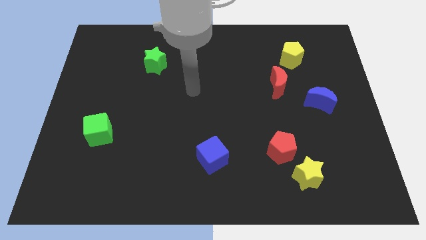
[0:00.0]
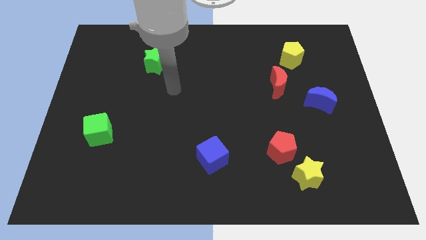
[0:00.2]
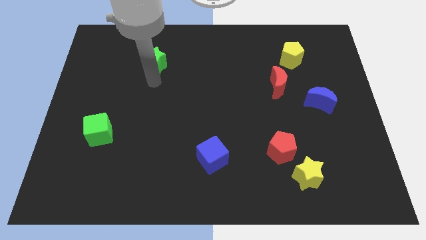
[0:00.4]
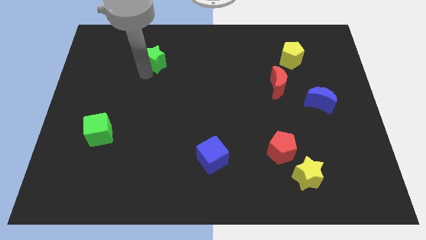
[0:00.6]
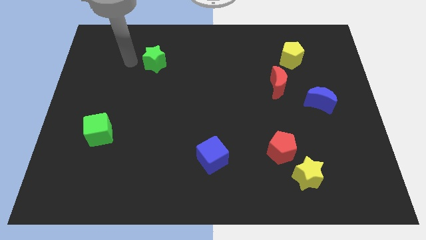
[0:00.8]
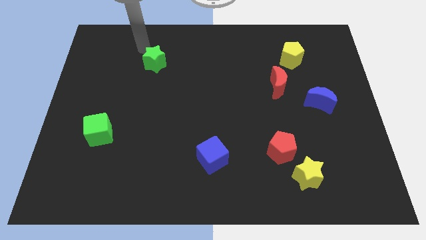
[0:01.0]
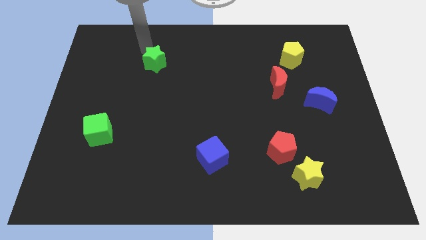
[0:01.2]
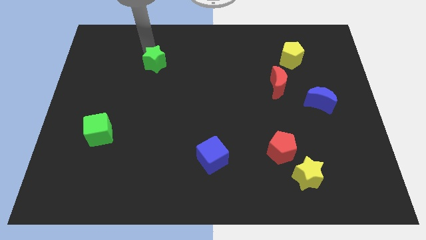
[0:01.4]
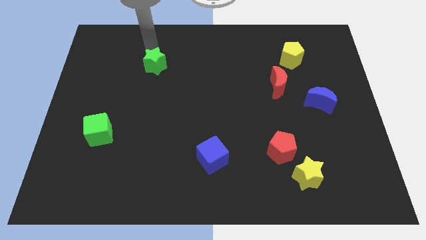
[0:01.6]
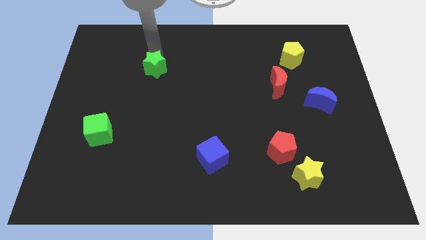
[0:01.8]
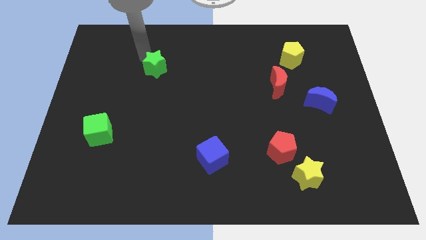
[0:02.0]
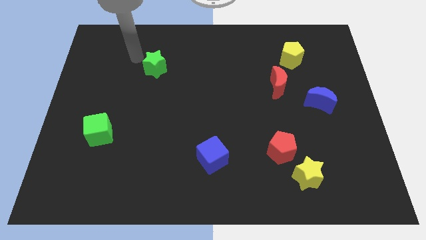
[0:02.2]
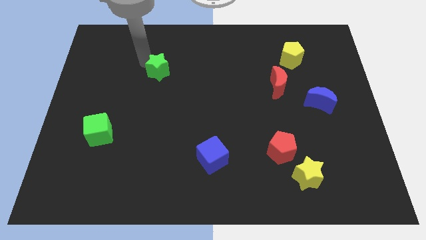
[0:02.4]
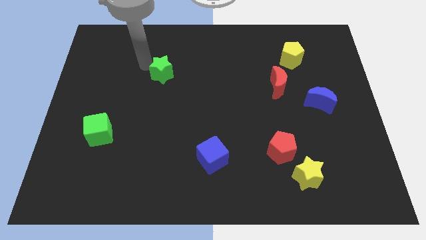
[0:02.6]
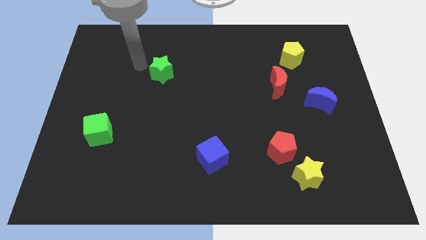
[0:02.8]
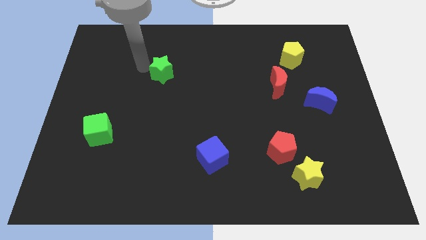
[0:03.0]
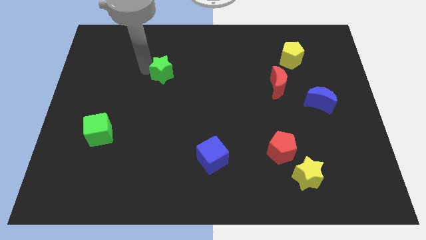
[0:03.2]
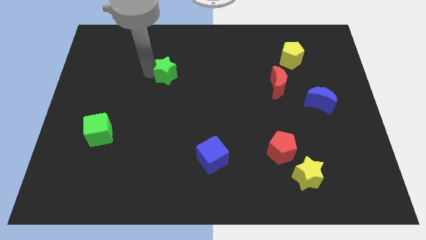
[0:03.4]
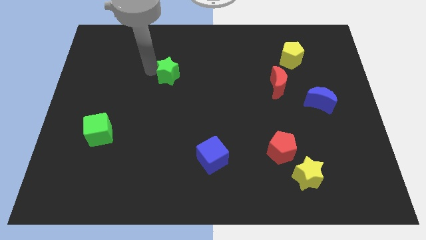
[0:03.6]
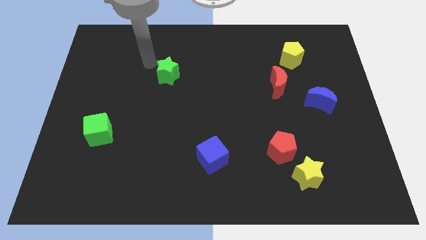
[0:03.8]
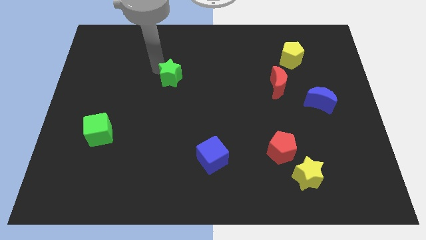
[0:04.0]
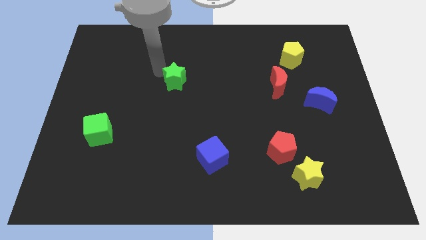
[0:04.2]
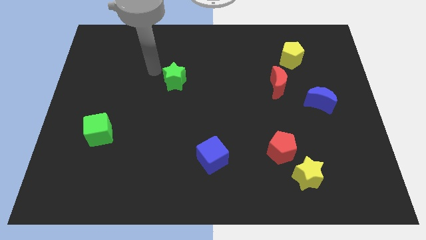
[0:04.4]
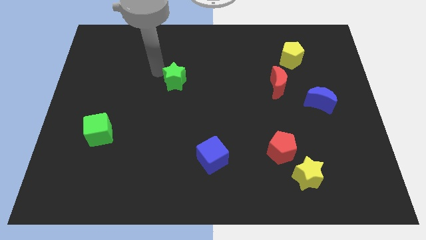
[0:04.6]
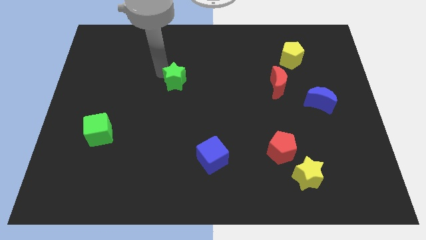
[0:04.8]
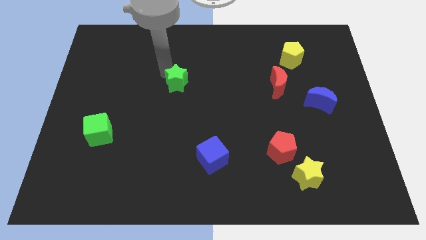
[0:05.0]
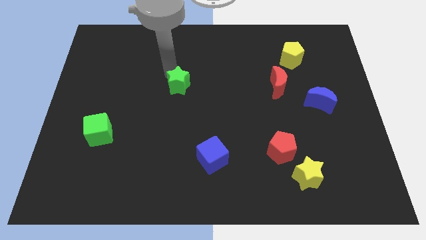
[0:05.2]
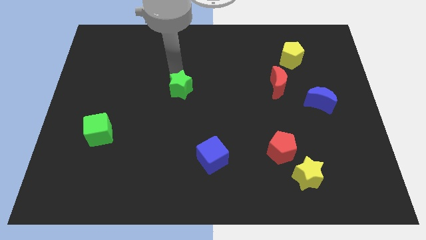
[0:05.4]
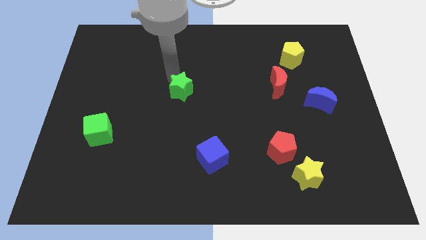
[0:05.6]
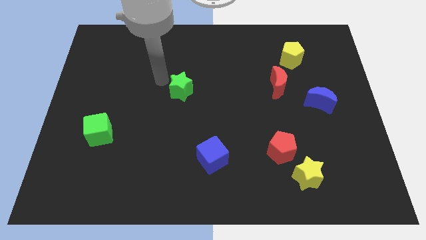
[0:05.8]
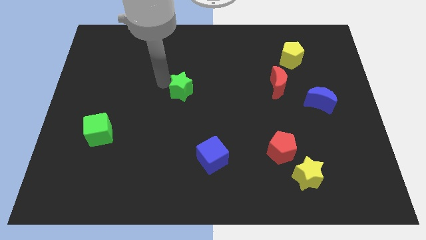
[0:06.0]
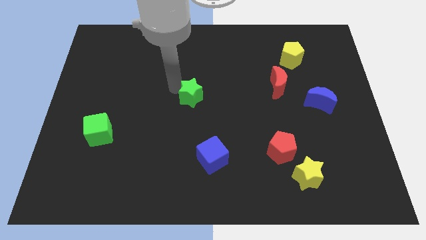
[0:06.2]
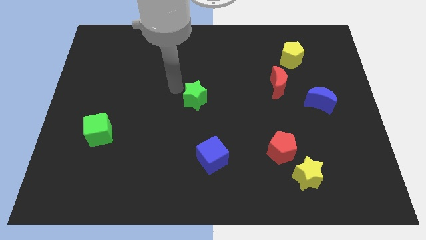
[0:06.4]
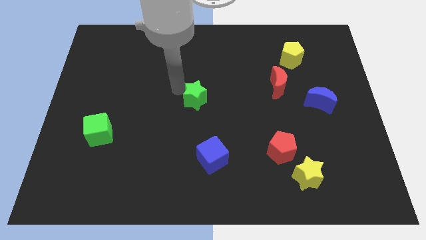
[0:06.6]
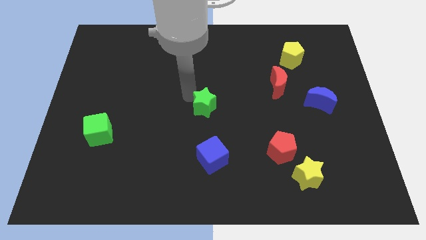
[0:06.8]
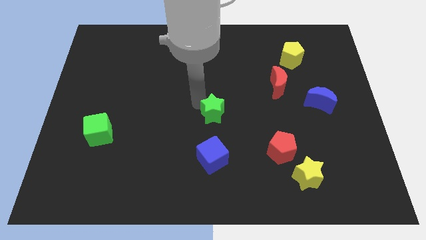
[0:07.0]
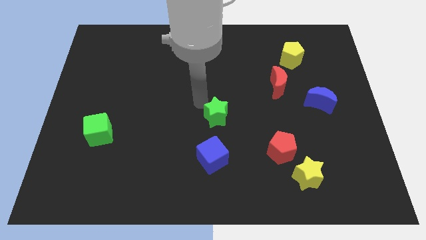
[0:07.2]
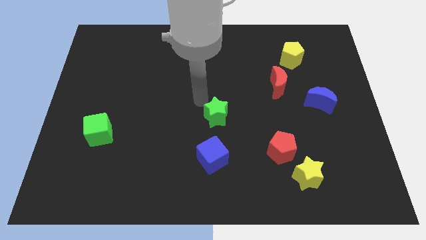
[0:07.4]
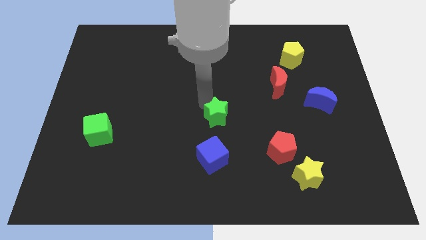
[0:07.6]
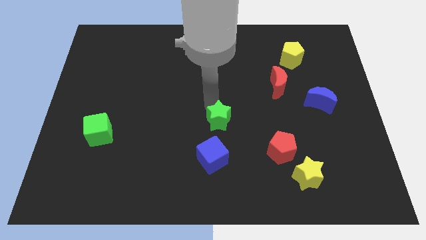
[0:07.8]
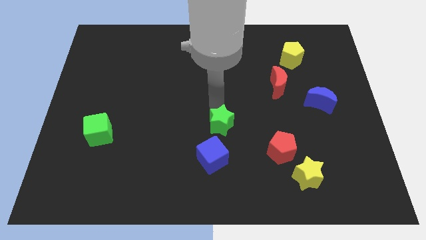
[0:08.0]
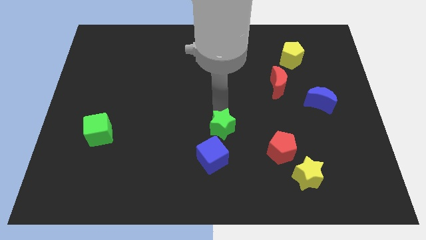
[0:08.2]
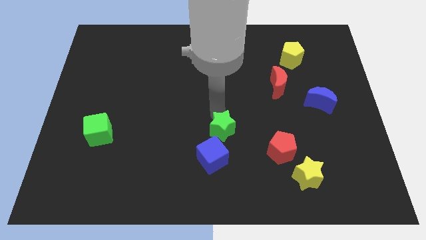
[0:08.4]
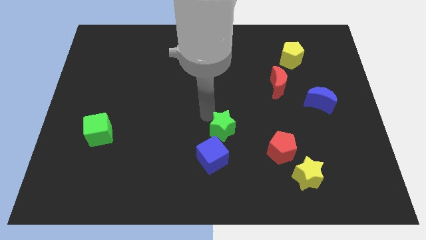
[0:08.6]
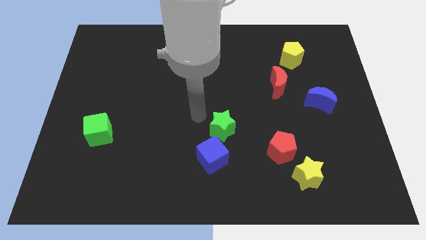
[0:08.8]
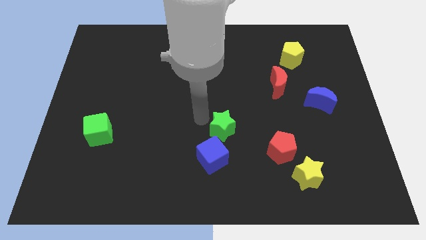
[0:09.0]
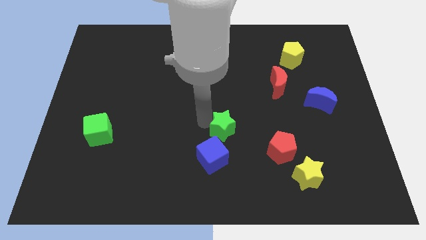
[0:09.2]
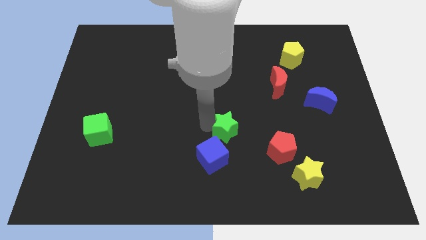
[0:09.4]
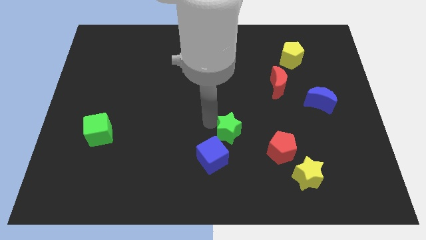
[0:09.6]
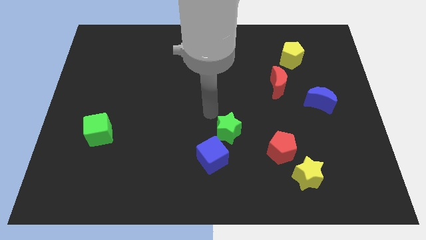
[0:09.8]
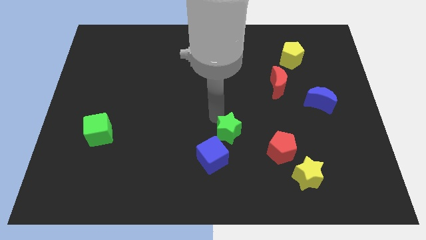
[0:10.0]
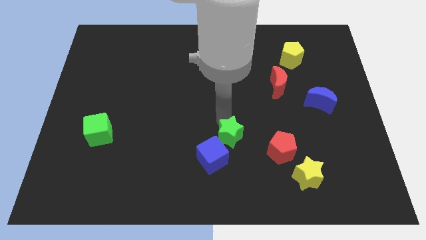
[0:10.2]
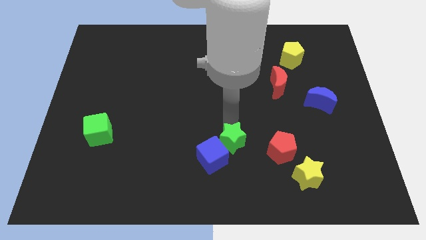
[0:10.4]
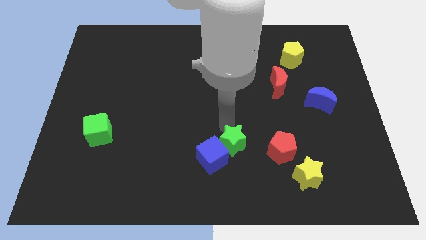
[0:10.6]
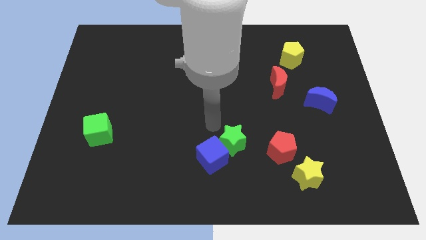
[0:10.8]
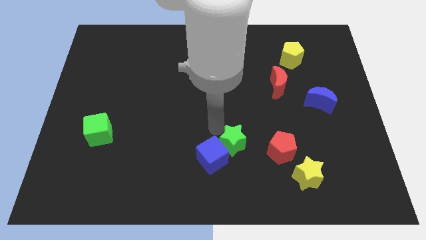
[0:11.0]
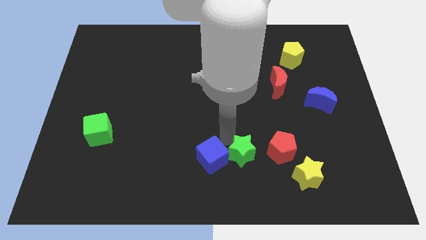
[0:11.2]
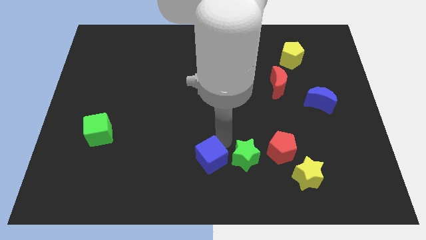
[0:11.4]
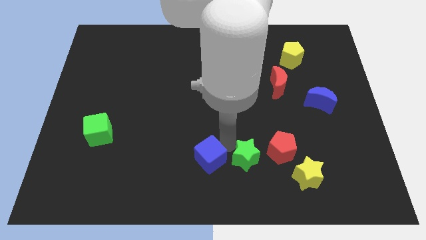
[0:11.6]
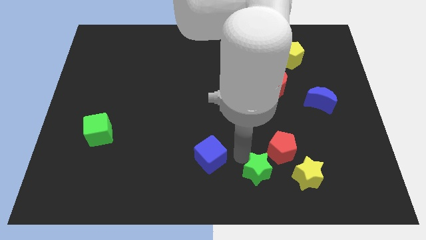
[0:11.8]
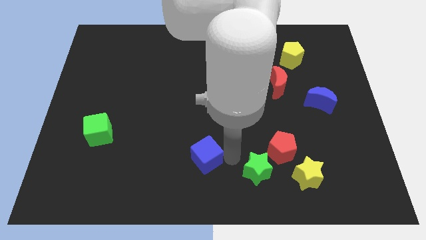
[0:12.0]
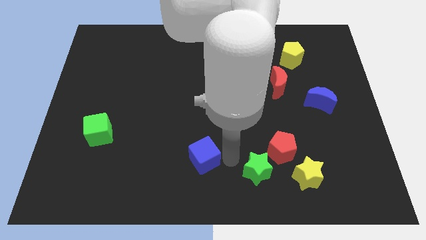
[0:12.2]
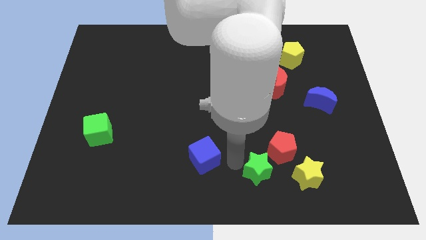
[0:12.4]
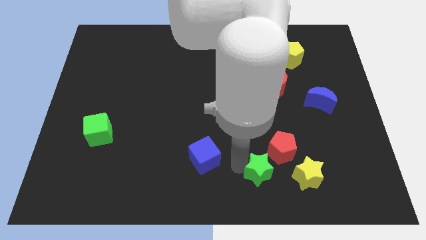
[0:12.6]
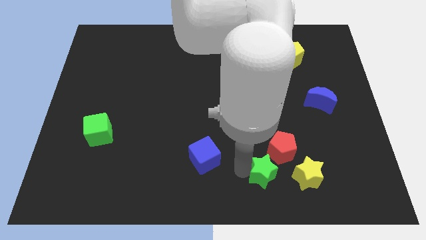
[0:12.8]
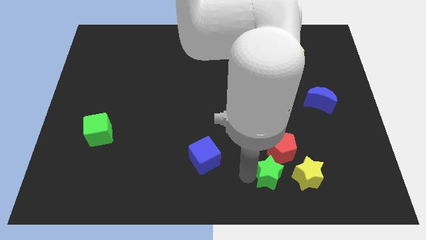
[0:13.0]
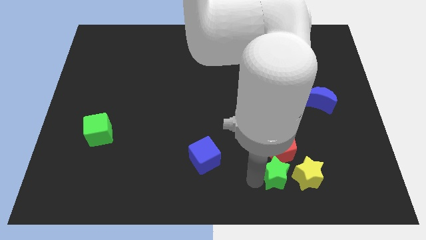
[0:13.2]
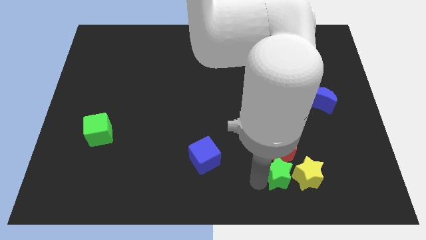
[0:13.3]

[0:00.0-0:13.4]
move the green star close to the yellow star

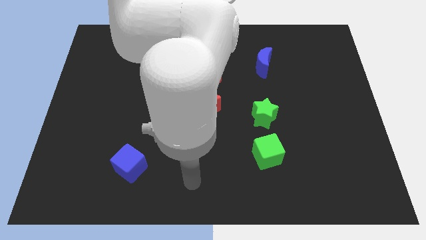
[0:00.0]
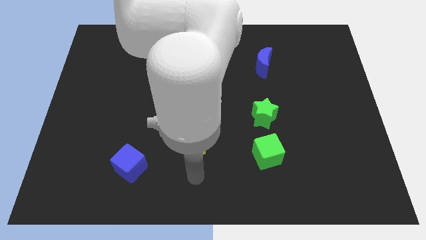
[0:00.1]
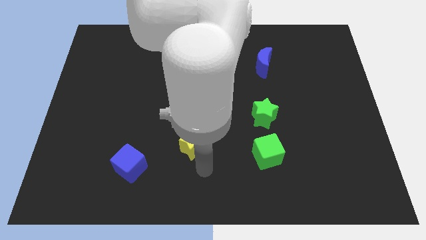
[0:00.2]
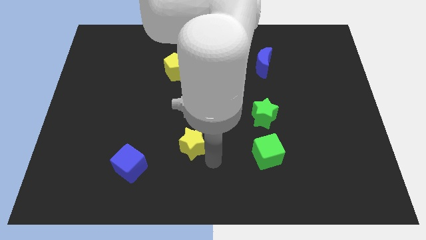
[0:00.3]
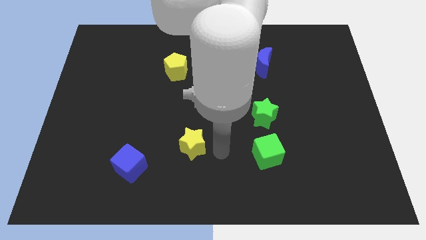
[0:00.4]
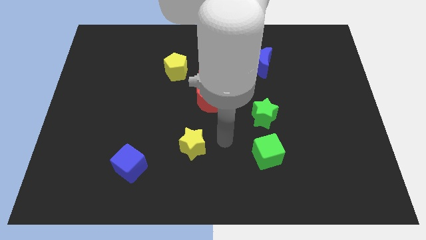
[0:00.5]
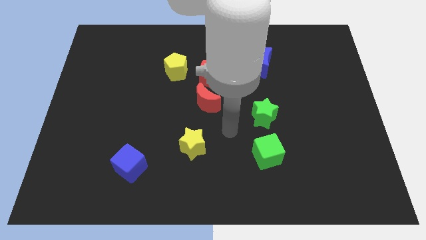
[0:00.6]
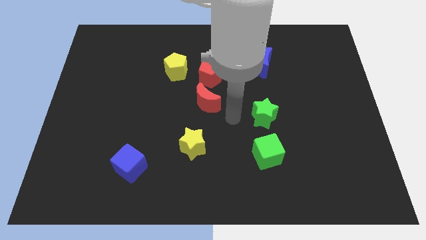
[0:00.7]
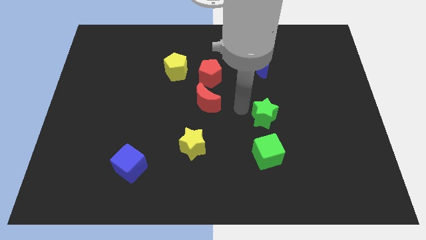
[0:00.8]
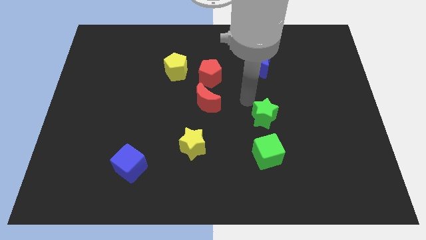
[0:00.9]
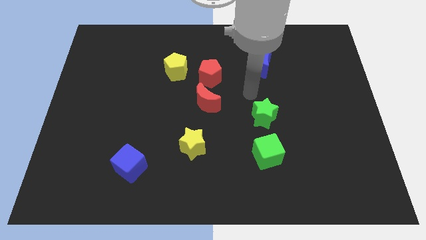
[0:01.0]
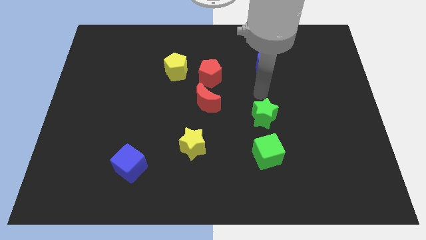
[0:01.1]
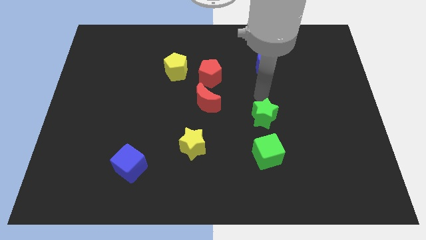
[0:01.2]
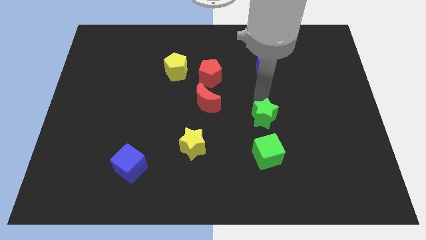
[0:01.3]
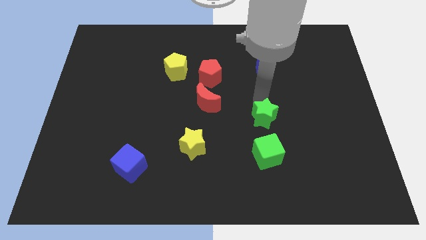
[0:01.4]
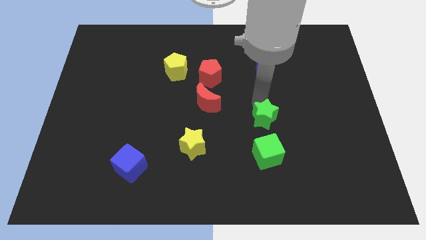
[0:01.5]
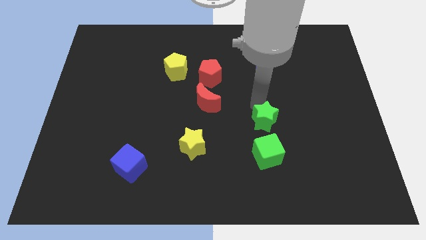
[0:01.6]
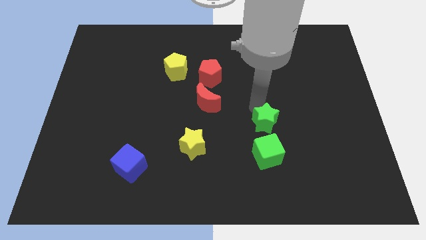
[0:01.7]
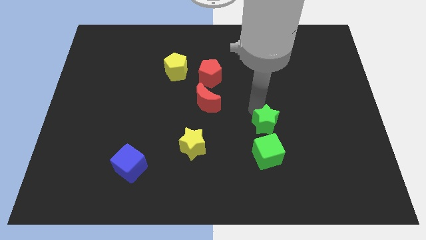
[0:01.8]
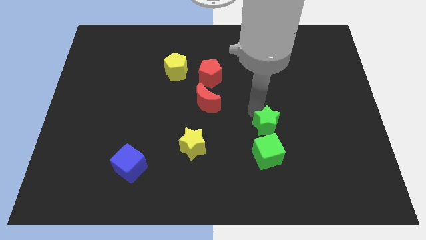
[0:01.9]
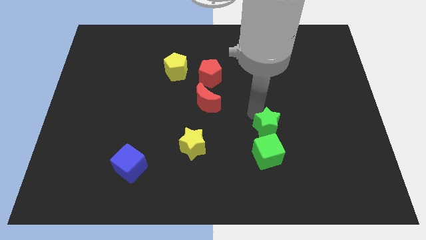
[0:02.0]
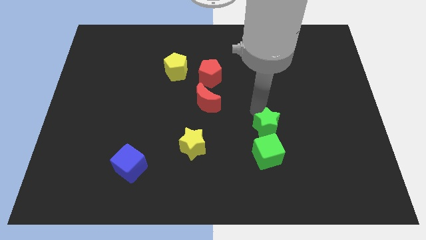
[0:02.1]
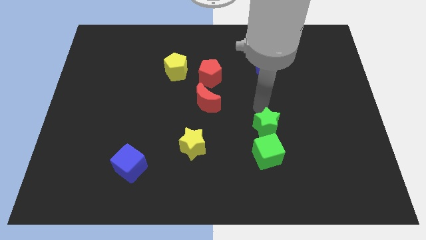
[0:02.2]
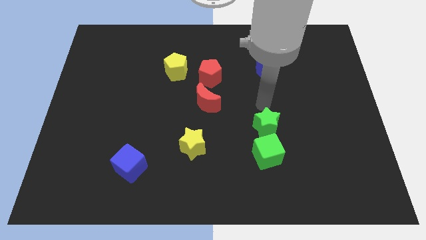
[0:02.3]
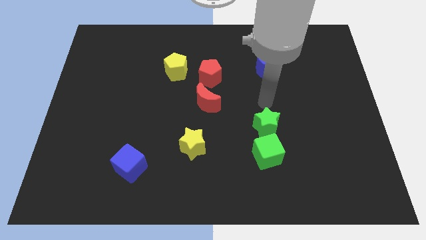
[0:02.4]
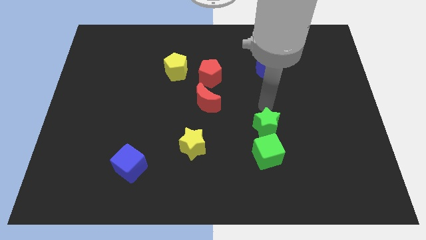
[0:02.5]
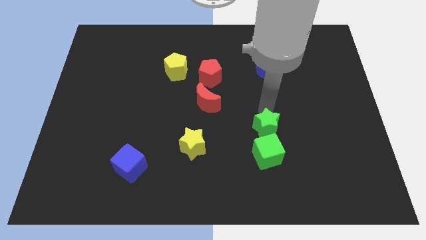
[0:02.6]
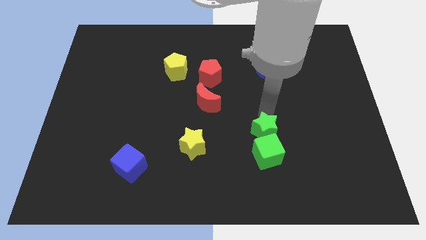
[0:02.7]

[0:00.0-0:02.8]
put the green star to the green cube
